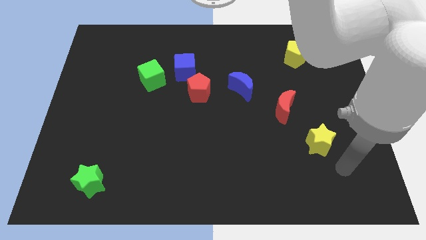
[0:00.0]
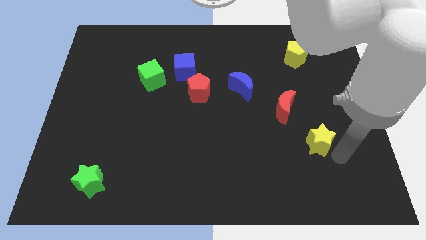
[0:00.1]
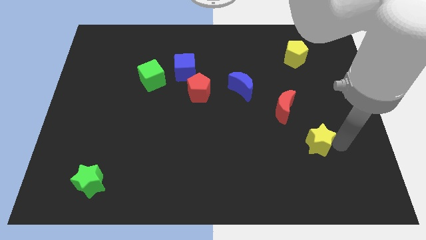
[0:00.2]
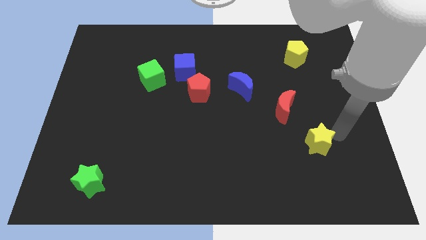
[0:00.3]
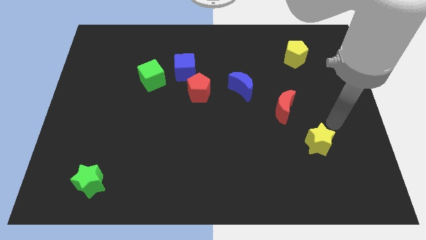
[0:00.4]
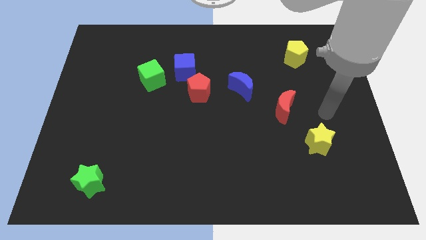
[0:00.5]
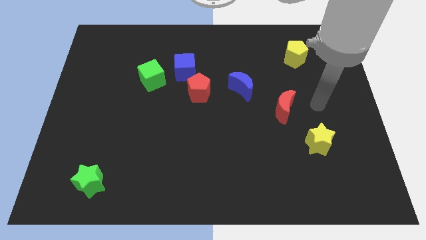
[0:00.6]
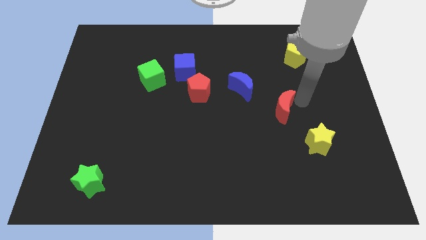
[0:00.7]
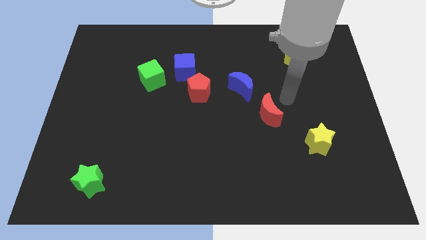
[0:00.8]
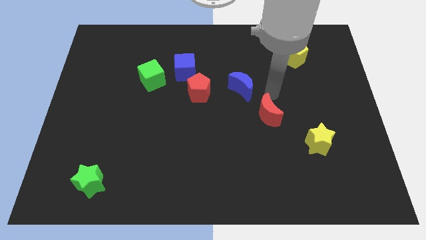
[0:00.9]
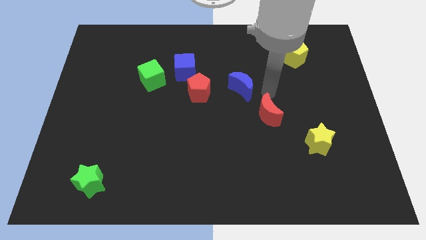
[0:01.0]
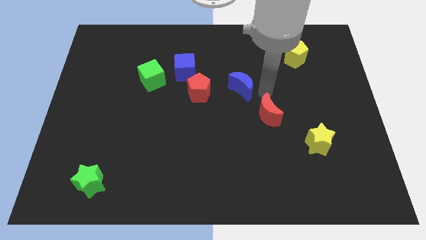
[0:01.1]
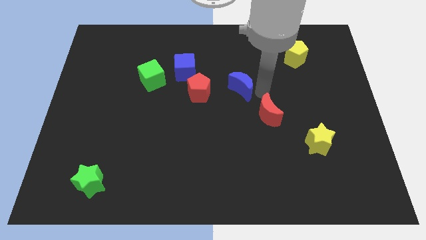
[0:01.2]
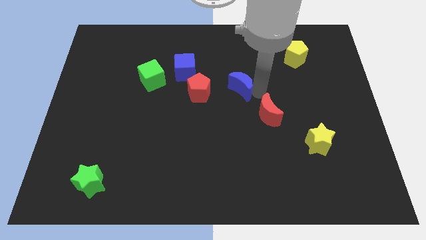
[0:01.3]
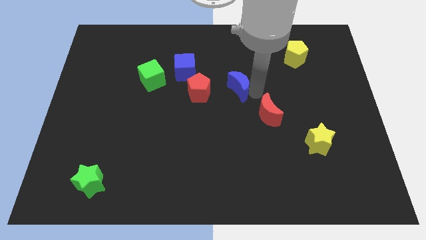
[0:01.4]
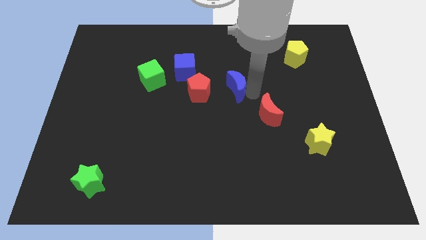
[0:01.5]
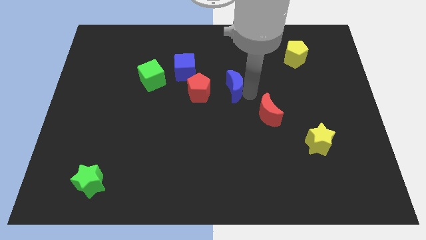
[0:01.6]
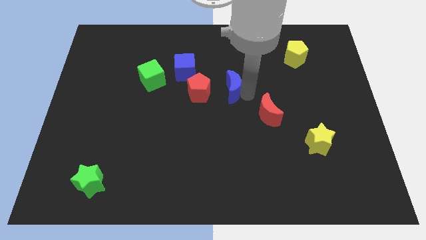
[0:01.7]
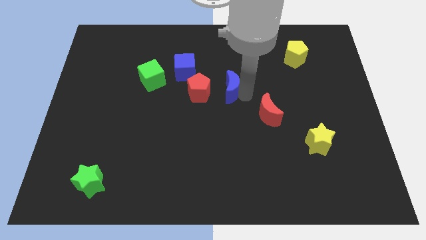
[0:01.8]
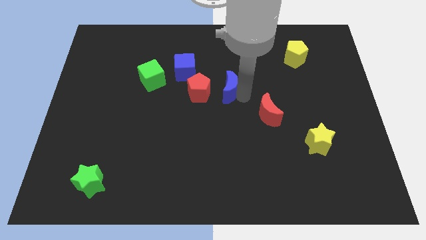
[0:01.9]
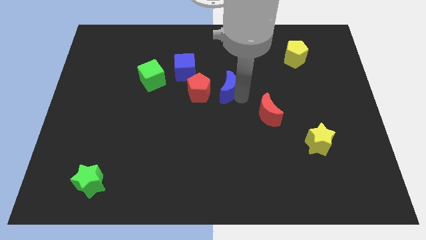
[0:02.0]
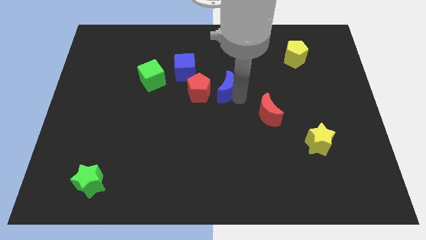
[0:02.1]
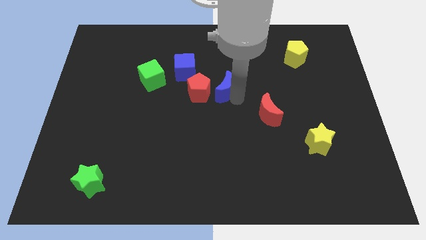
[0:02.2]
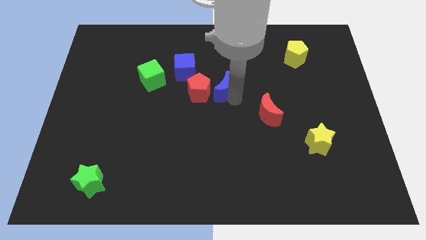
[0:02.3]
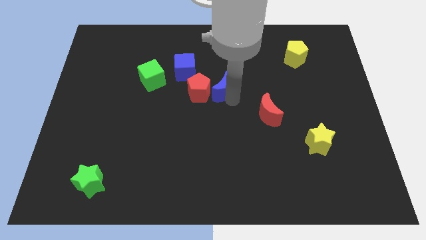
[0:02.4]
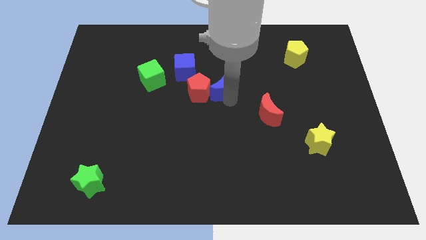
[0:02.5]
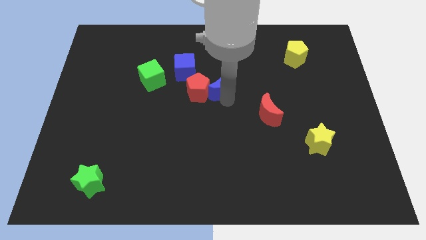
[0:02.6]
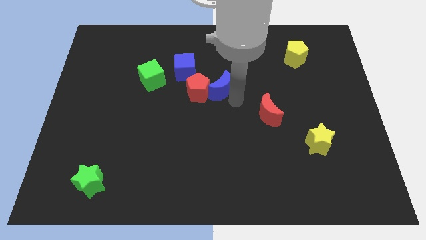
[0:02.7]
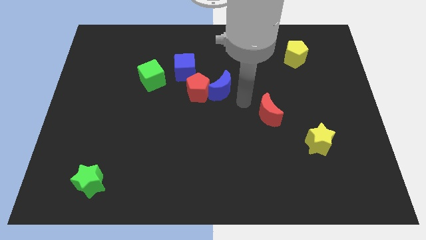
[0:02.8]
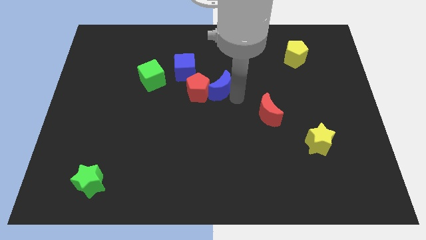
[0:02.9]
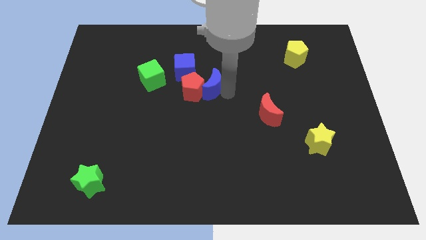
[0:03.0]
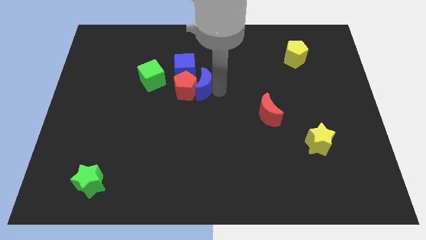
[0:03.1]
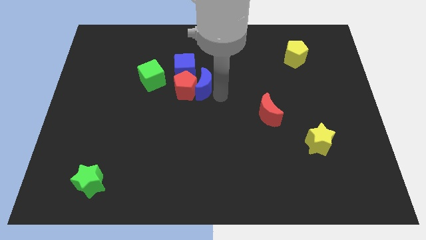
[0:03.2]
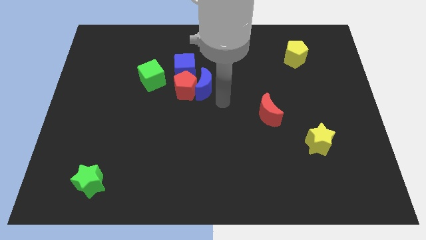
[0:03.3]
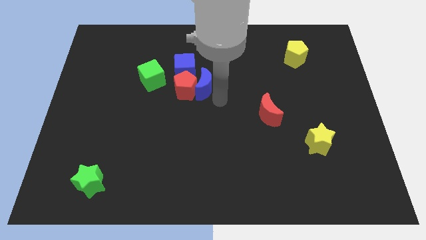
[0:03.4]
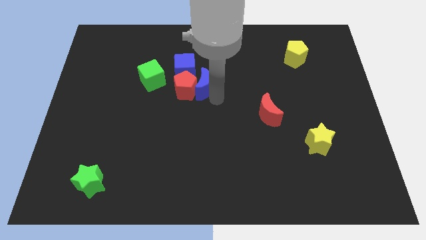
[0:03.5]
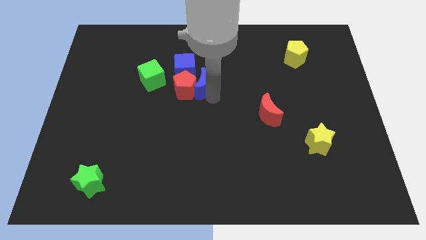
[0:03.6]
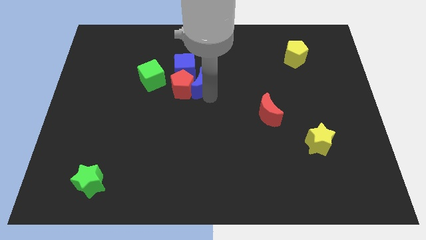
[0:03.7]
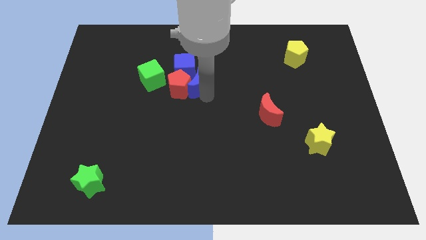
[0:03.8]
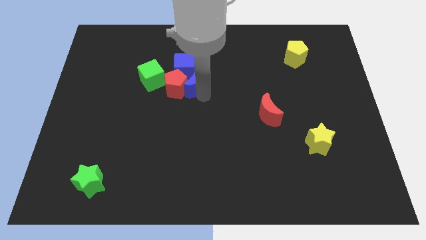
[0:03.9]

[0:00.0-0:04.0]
push the blue moon next to the blue cube

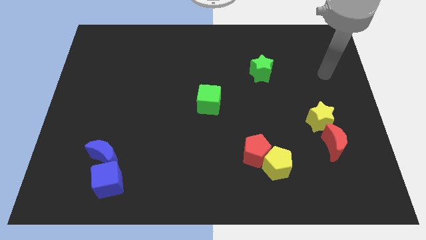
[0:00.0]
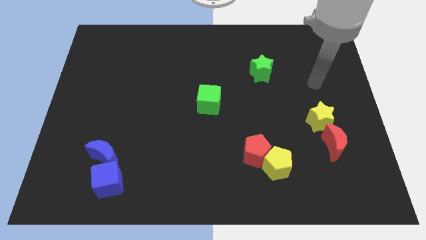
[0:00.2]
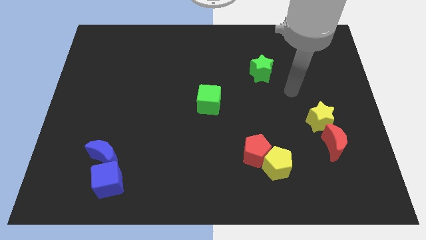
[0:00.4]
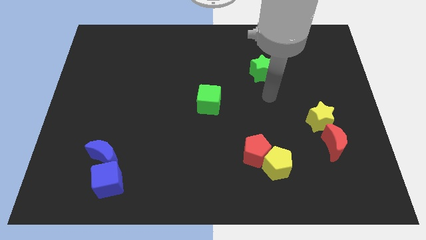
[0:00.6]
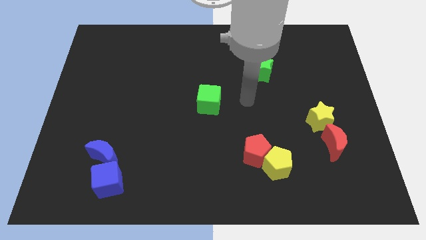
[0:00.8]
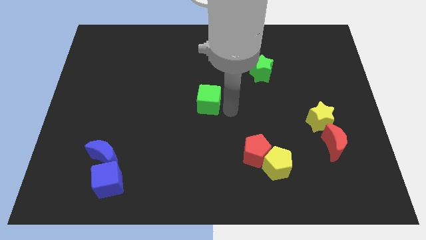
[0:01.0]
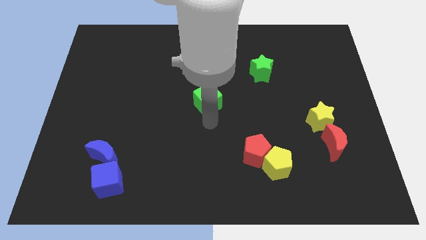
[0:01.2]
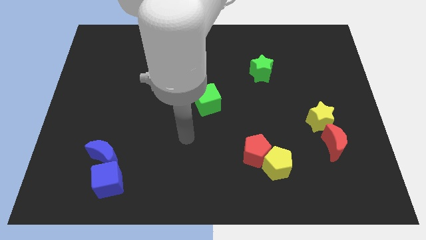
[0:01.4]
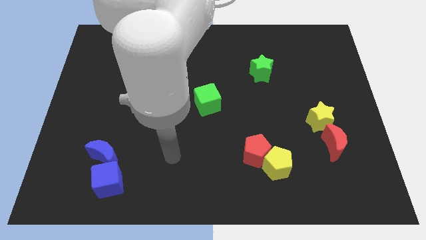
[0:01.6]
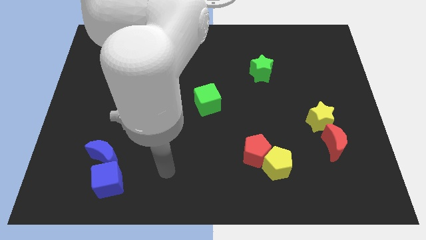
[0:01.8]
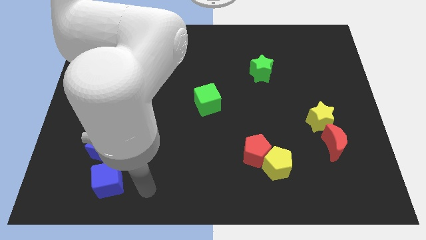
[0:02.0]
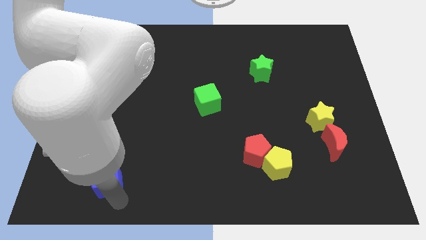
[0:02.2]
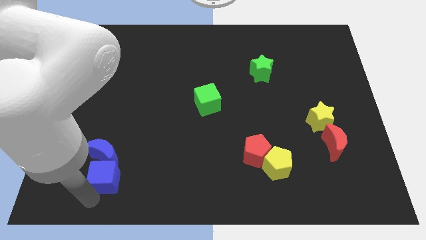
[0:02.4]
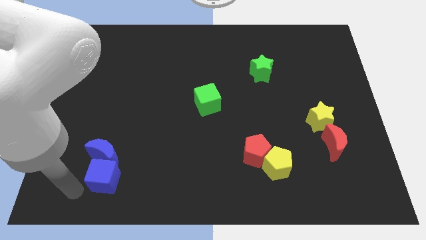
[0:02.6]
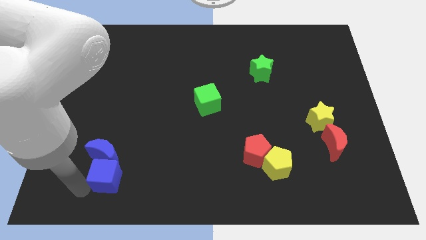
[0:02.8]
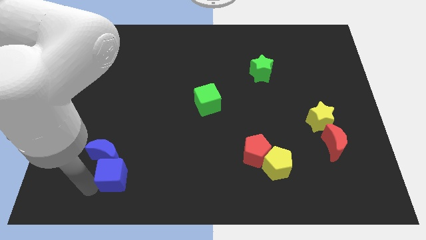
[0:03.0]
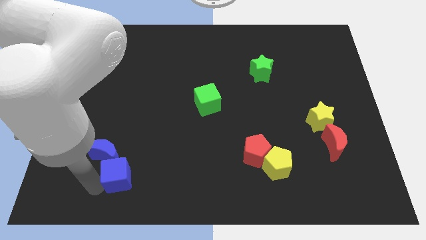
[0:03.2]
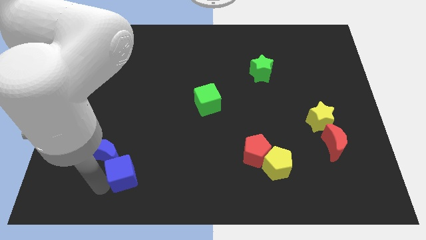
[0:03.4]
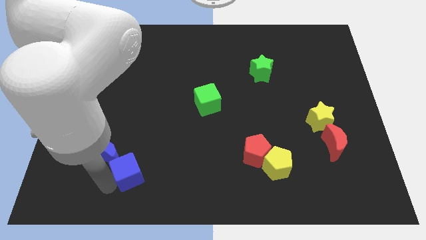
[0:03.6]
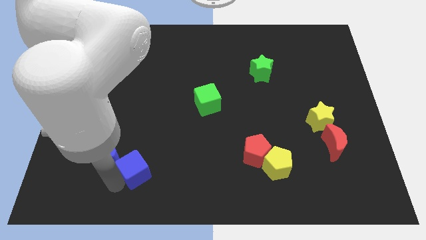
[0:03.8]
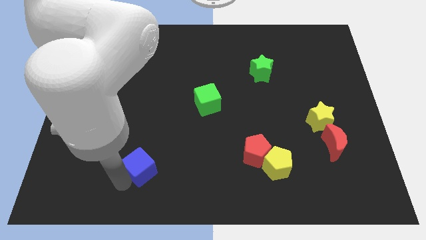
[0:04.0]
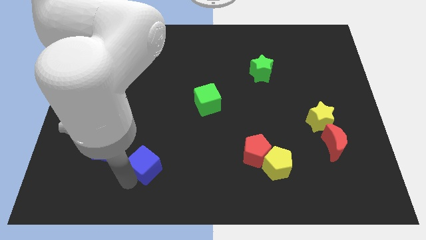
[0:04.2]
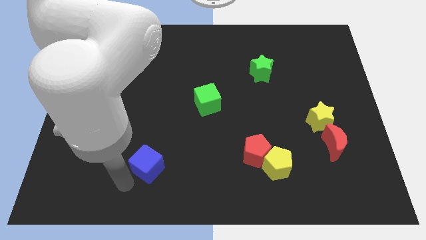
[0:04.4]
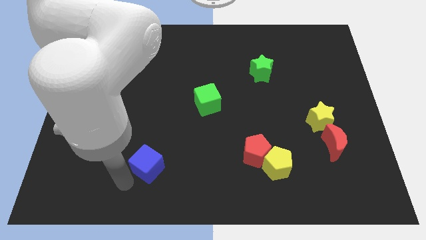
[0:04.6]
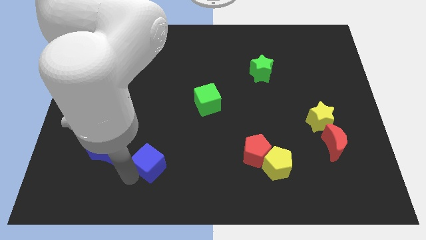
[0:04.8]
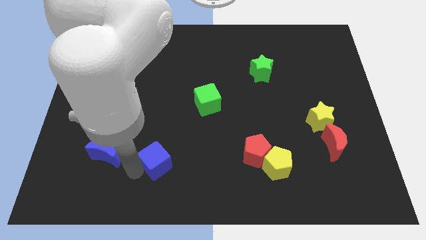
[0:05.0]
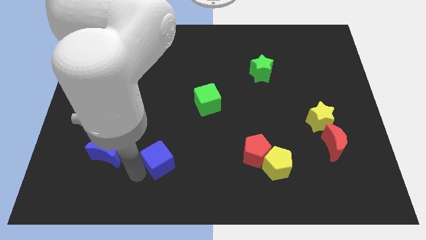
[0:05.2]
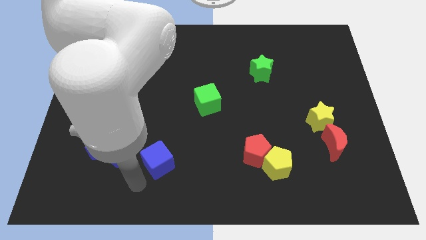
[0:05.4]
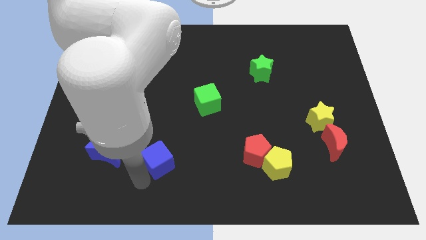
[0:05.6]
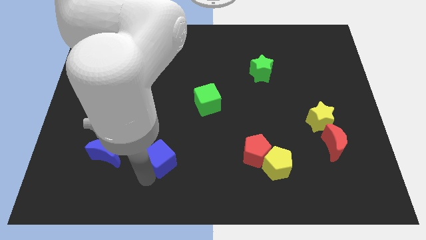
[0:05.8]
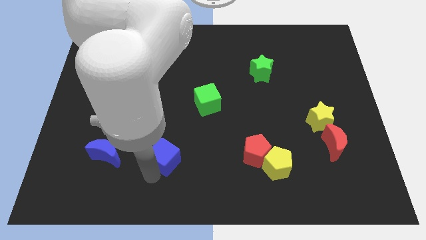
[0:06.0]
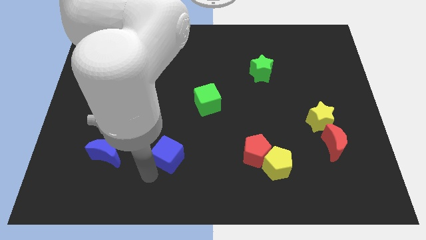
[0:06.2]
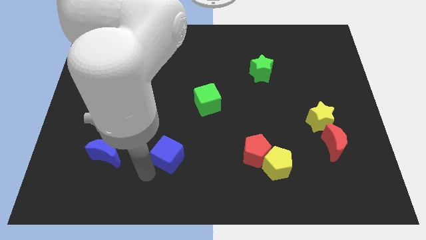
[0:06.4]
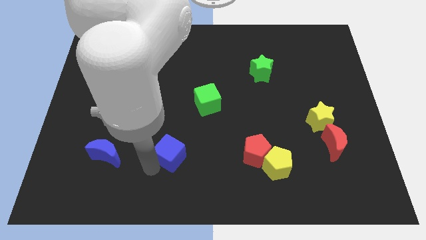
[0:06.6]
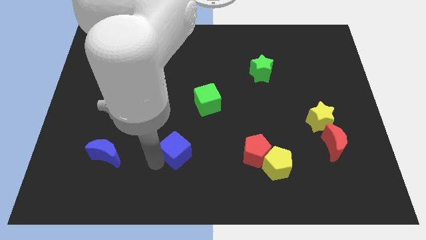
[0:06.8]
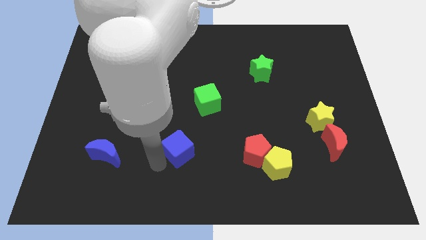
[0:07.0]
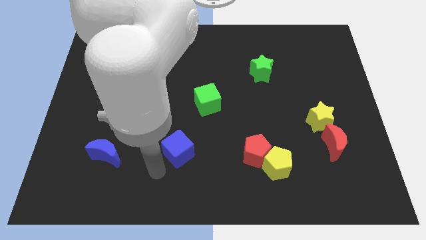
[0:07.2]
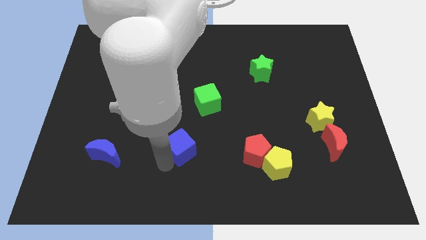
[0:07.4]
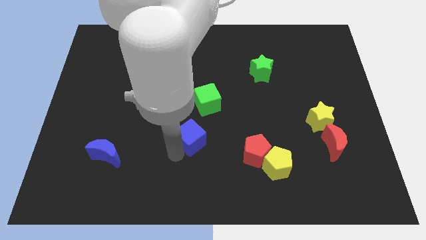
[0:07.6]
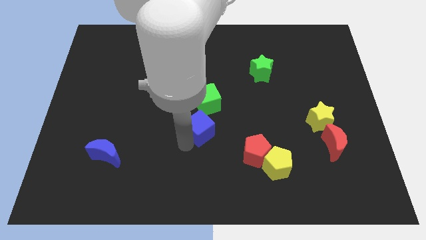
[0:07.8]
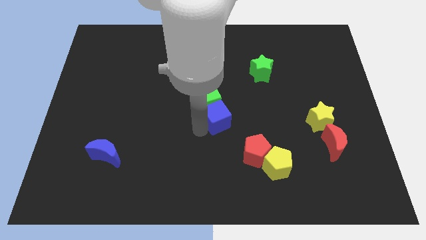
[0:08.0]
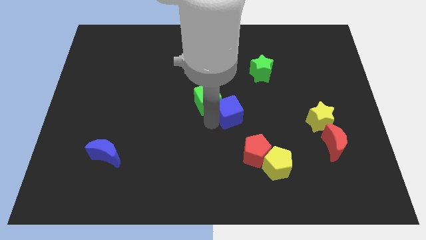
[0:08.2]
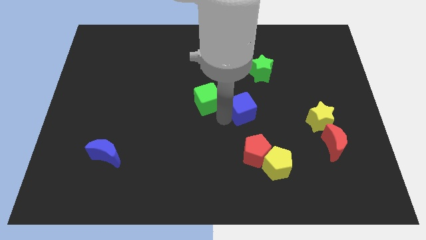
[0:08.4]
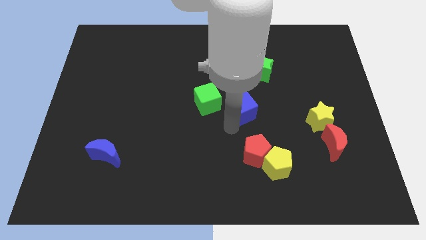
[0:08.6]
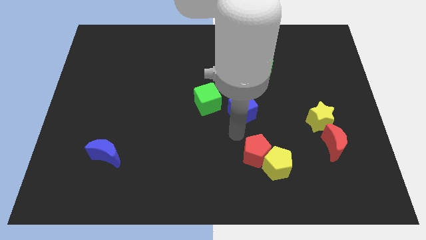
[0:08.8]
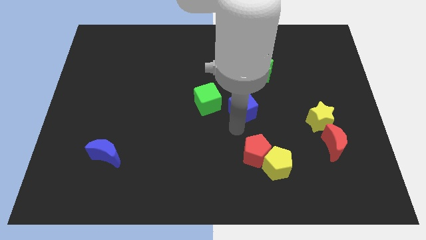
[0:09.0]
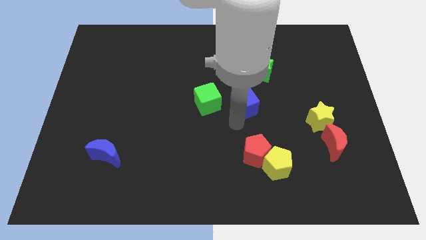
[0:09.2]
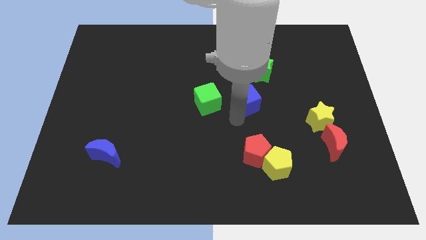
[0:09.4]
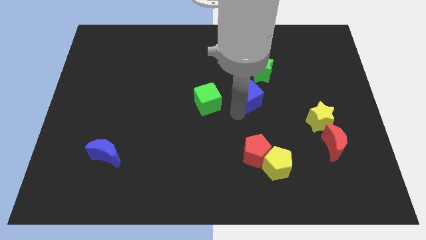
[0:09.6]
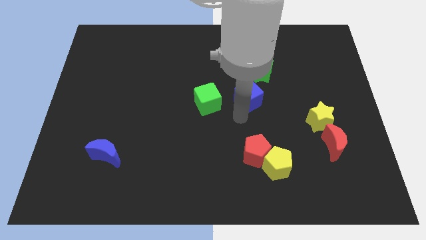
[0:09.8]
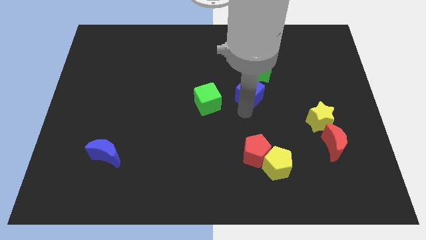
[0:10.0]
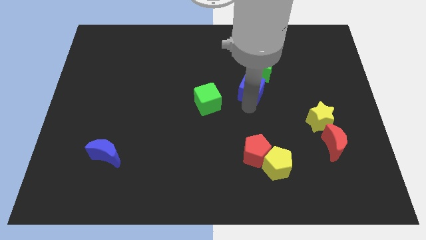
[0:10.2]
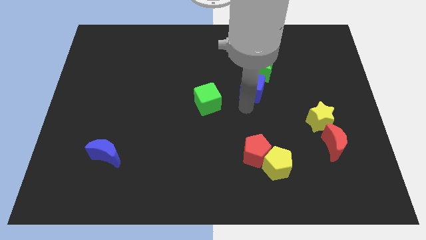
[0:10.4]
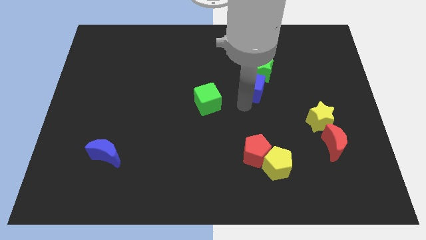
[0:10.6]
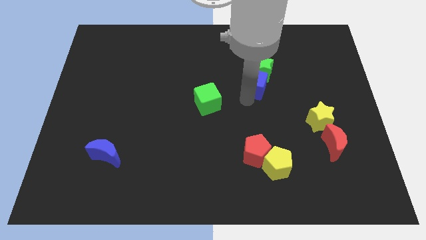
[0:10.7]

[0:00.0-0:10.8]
put the blue cube to the green star
